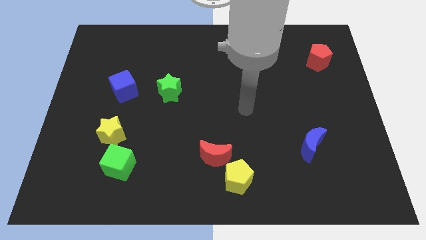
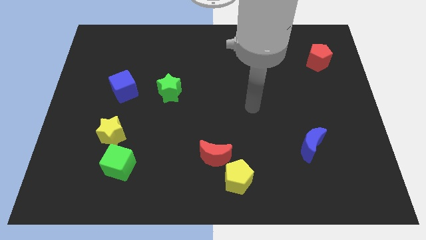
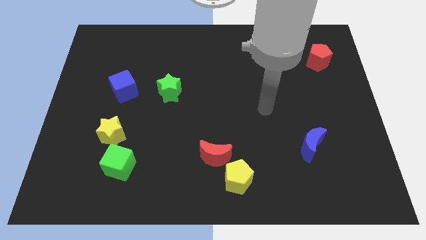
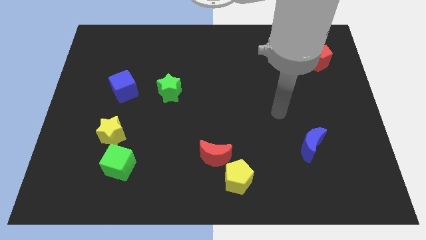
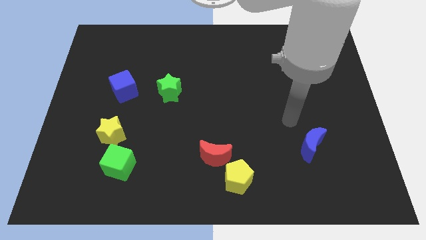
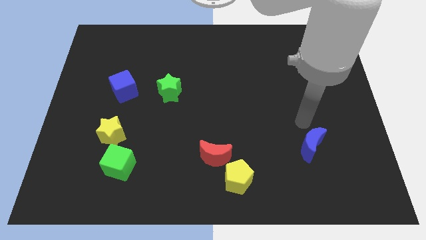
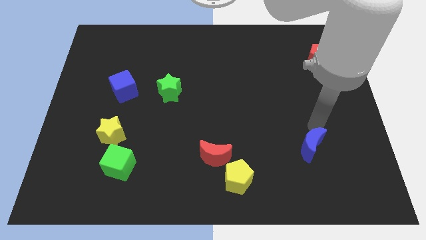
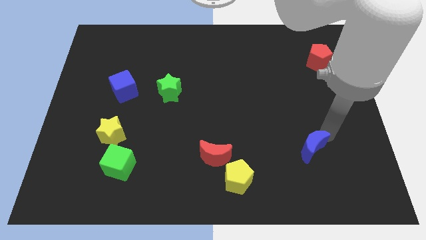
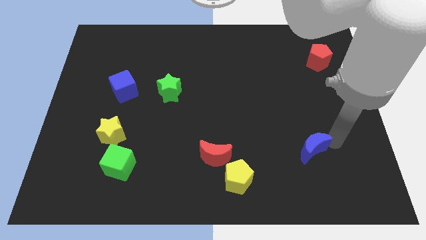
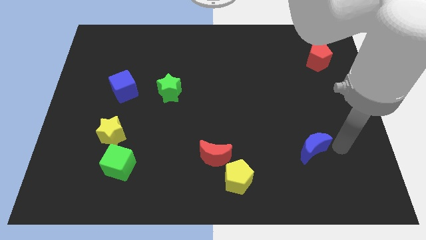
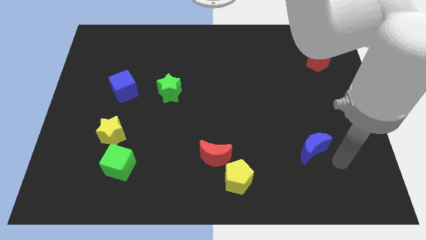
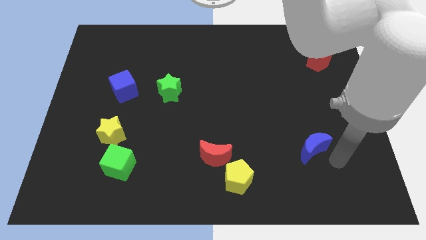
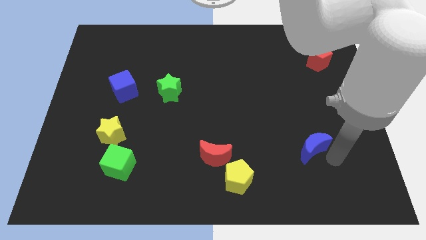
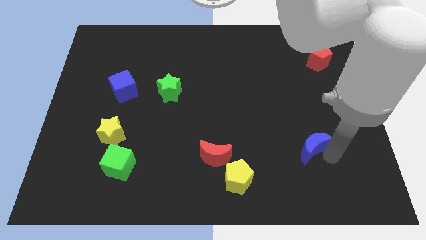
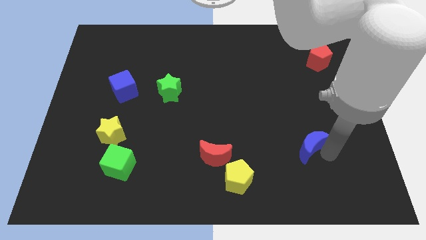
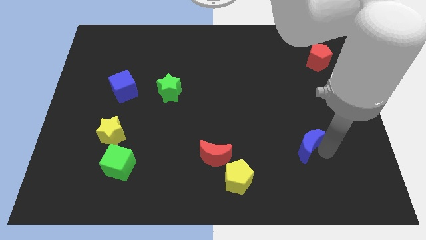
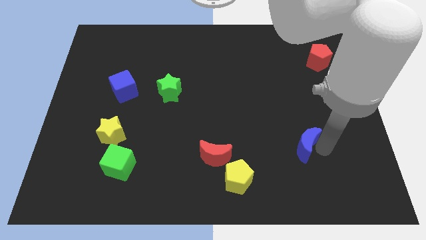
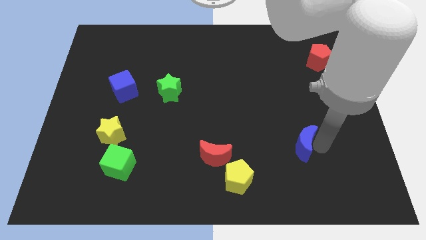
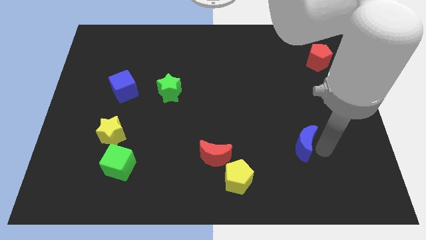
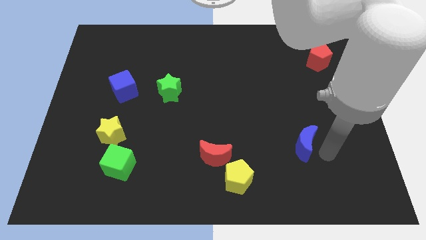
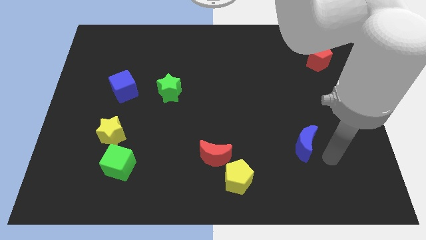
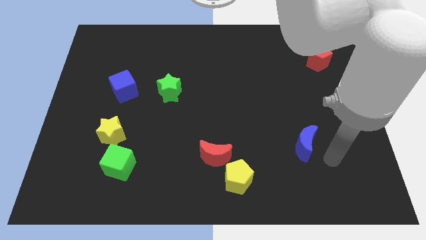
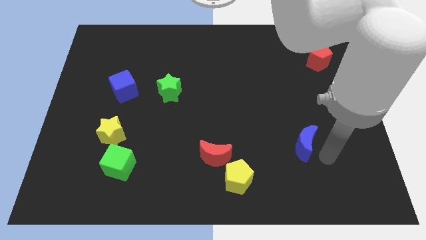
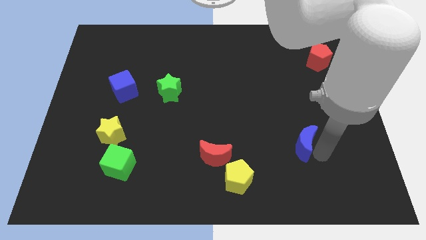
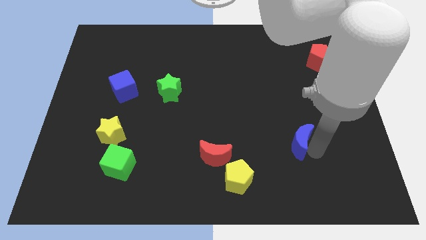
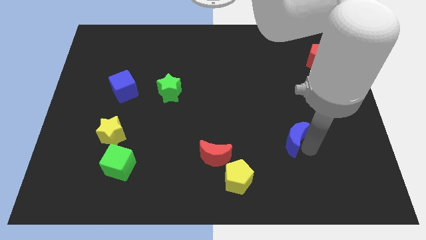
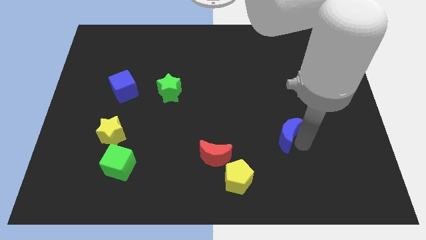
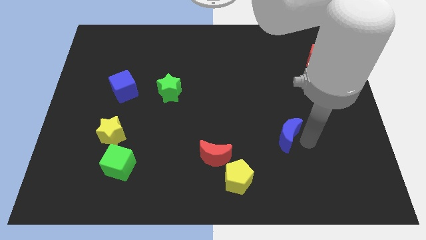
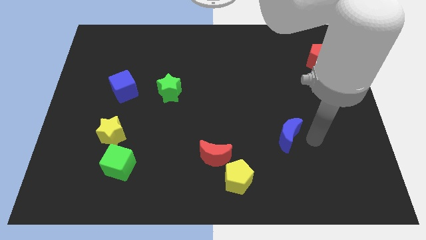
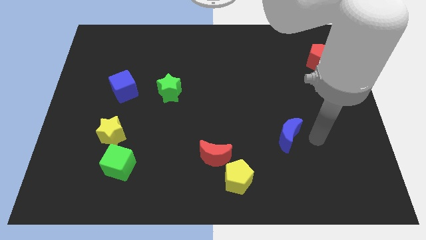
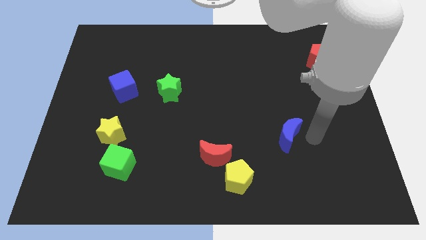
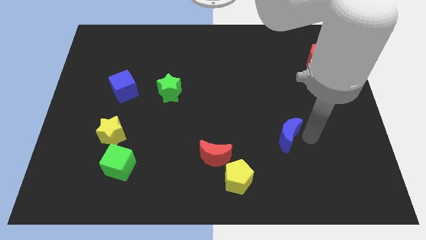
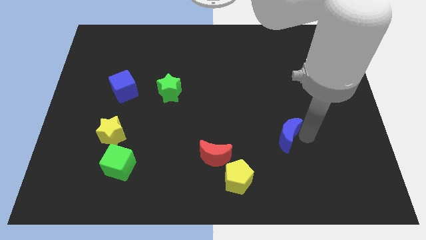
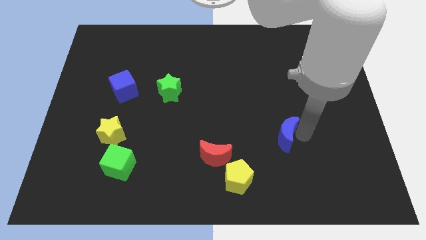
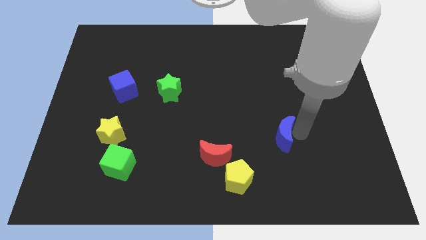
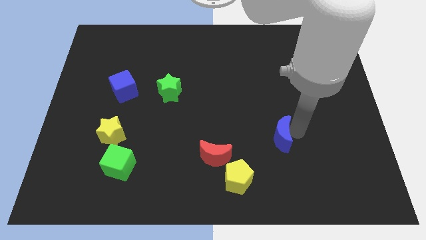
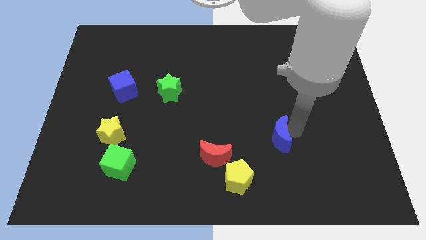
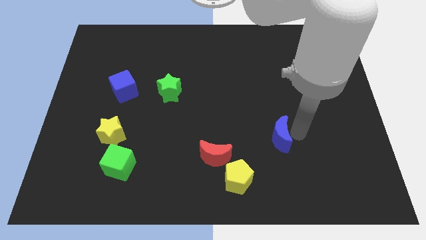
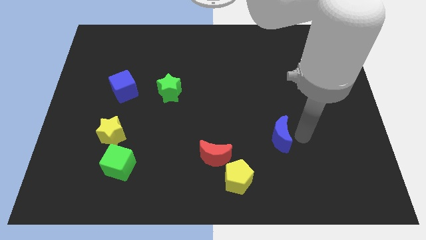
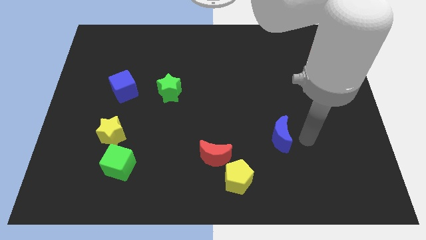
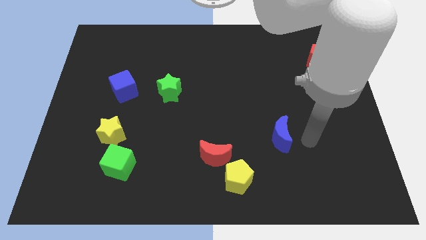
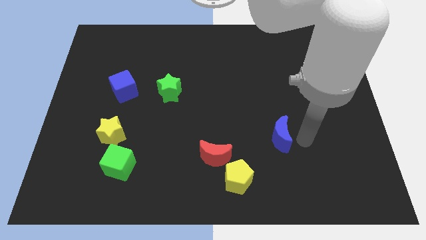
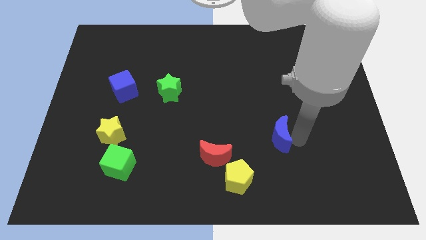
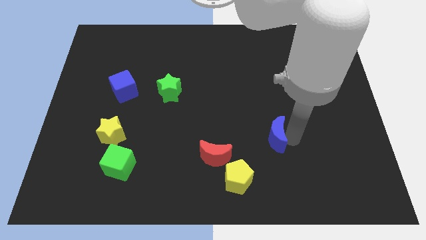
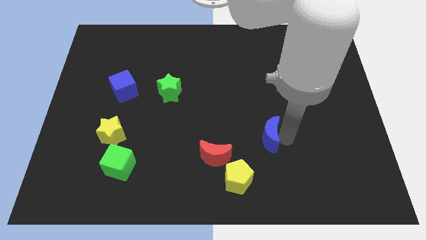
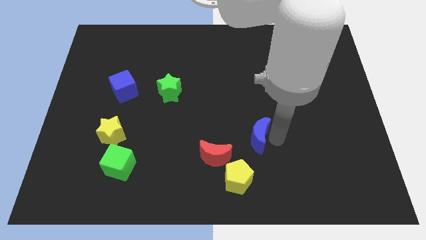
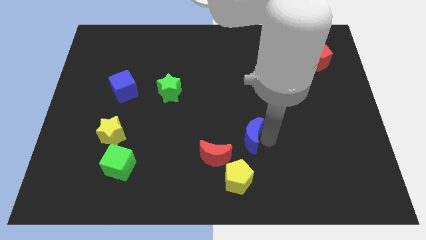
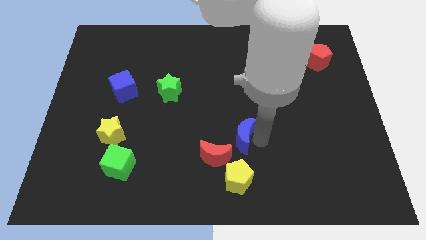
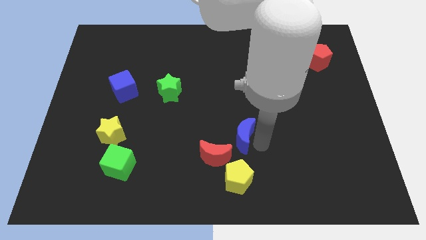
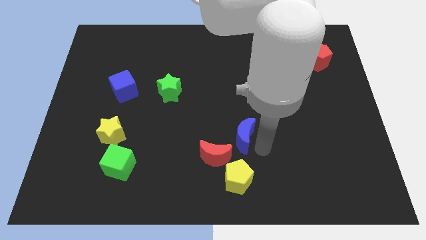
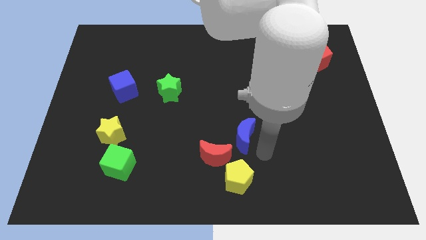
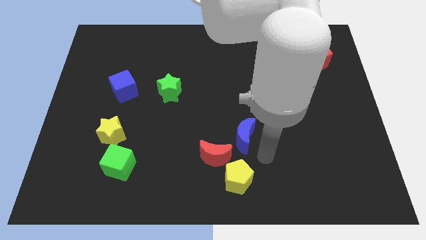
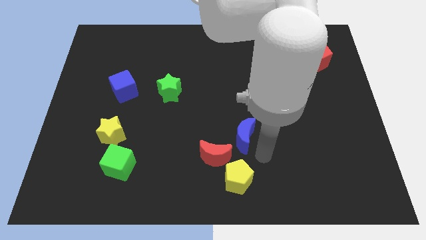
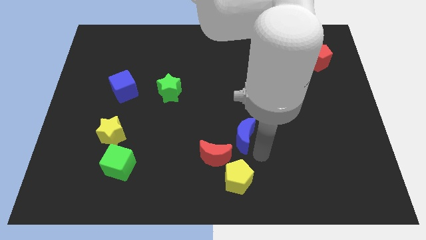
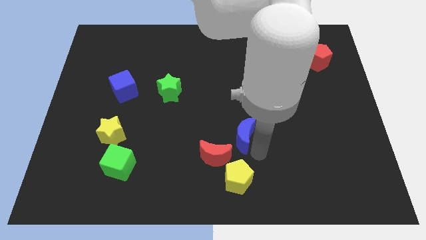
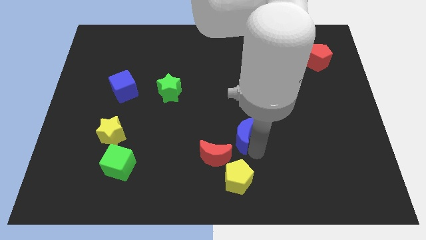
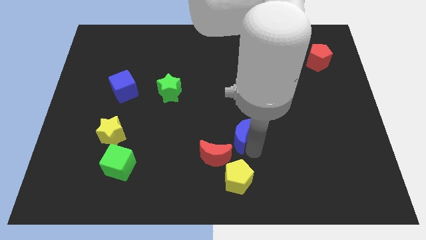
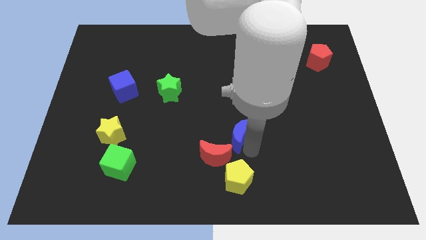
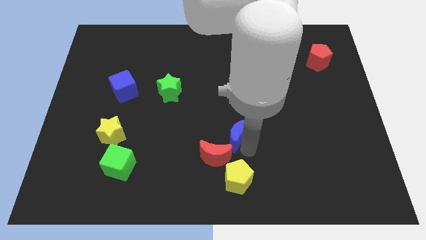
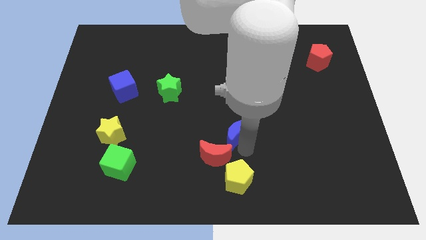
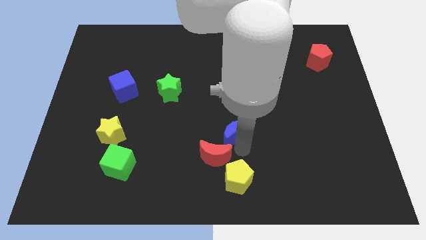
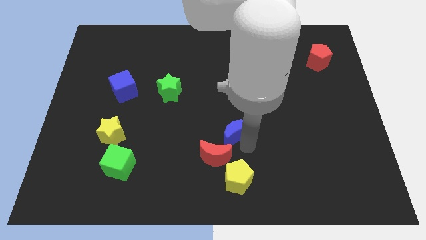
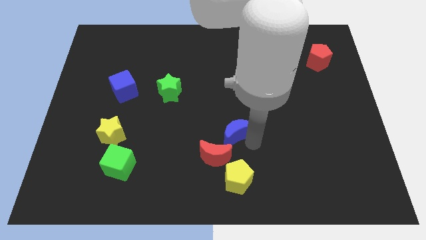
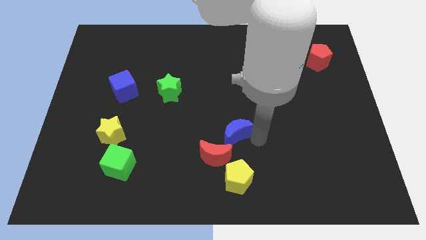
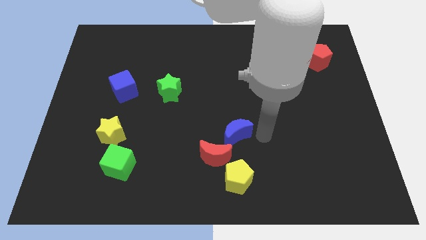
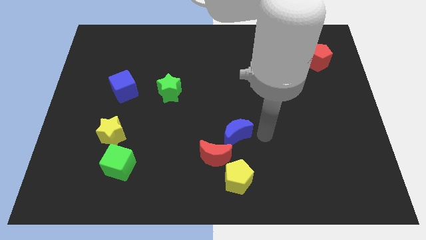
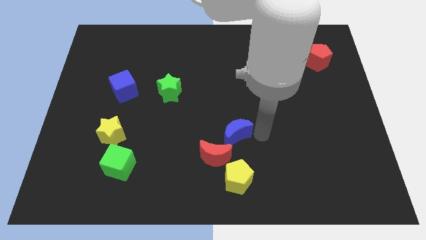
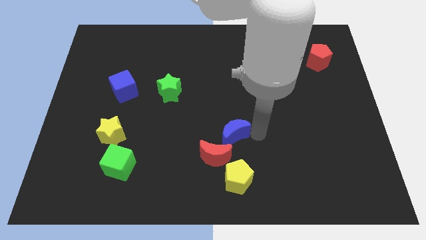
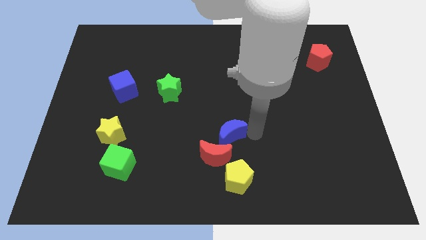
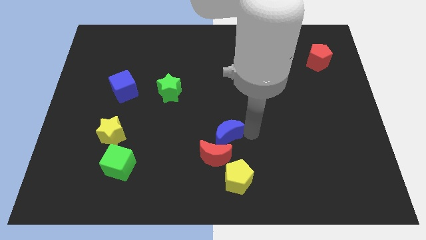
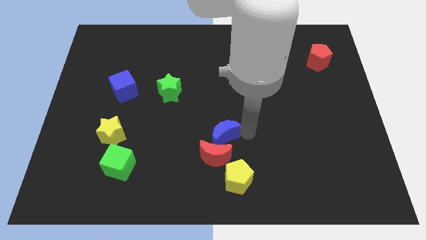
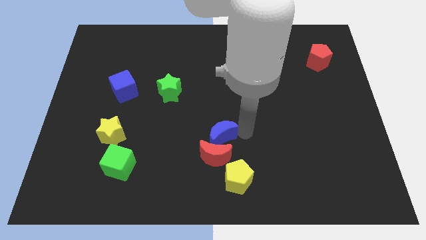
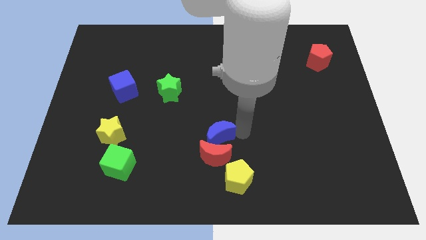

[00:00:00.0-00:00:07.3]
slide the blue moon to the left

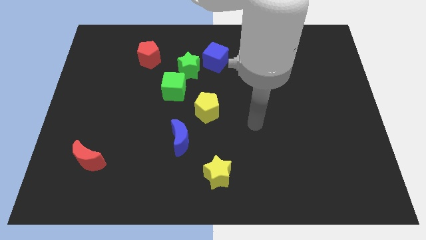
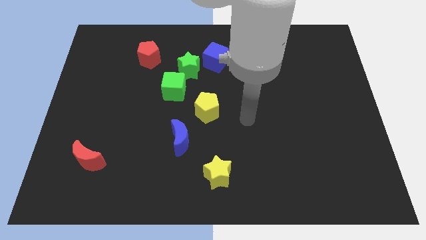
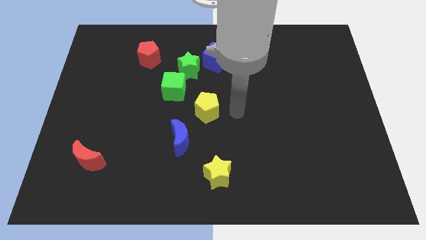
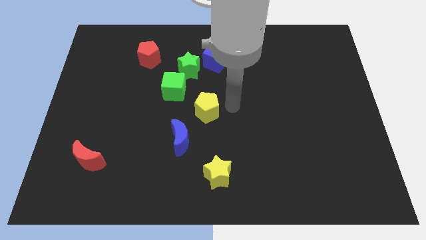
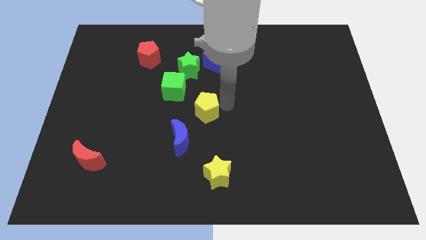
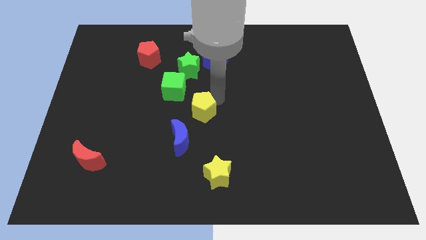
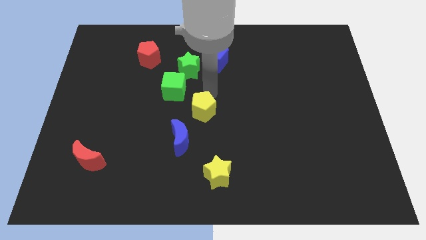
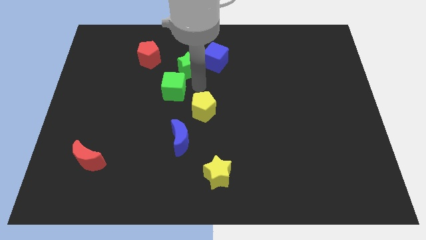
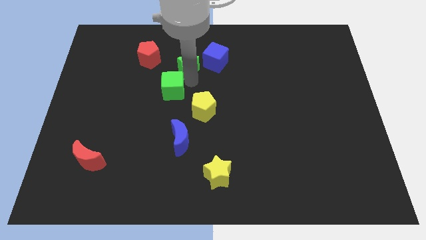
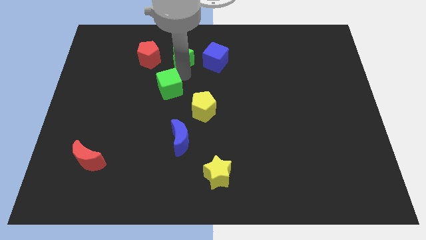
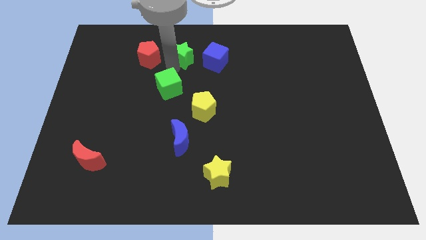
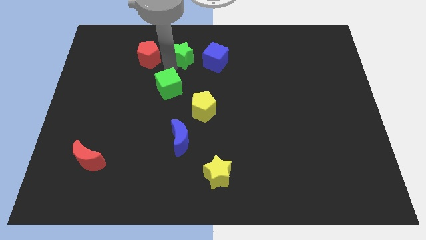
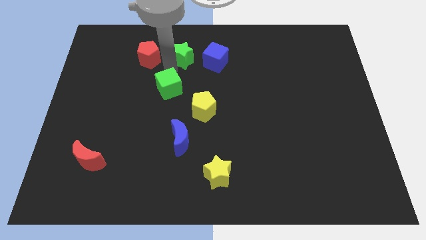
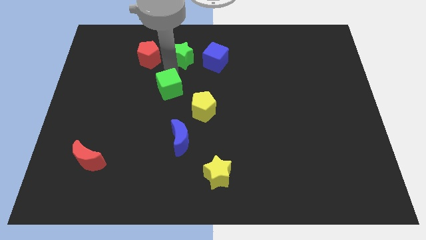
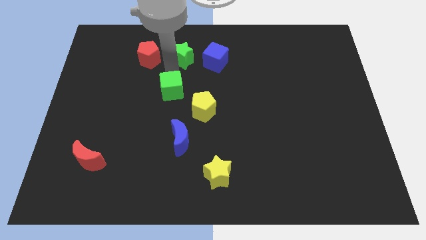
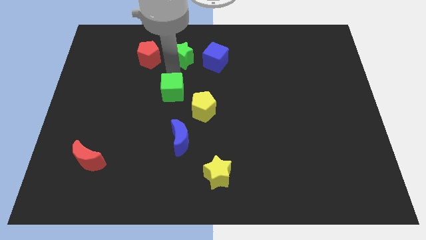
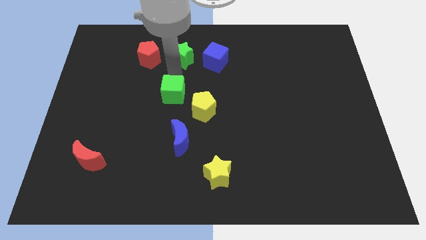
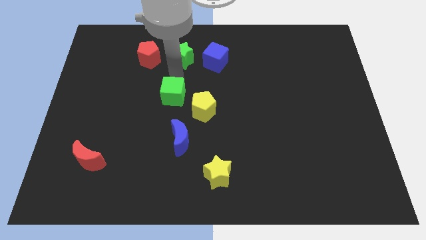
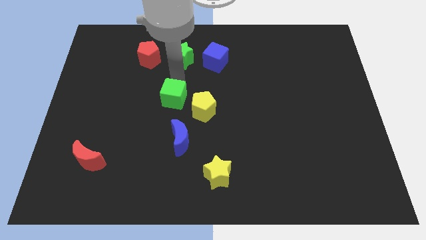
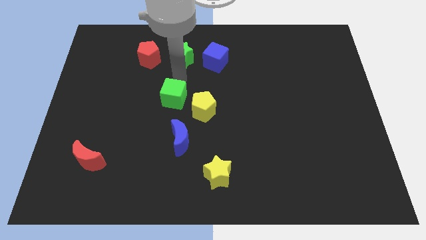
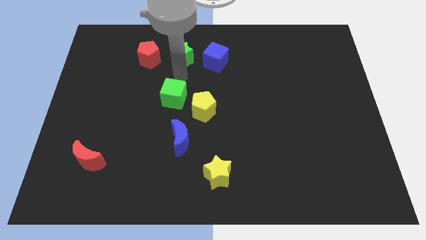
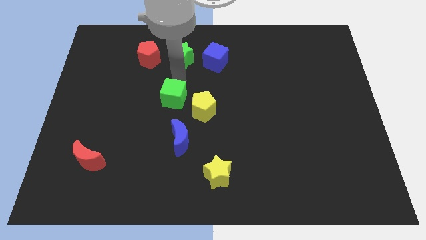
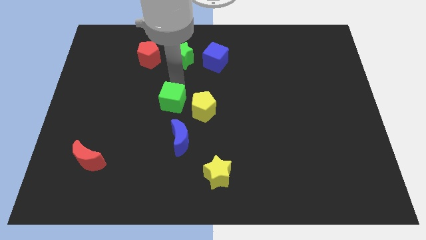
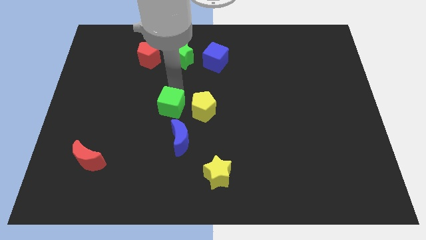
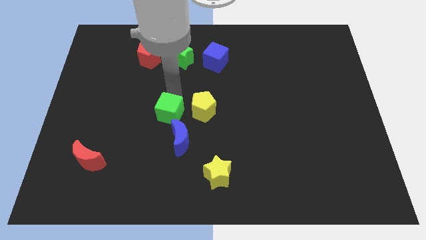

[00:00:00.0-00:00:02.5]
push the green cube downwards somewhat
